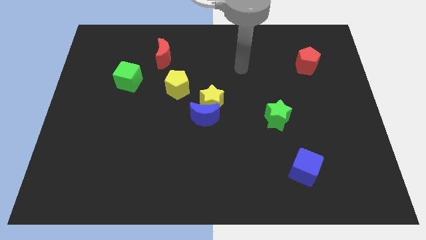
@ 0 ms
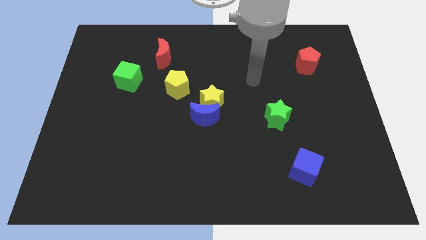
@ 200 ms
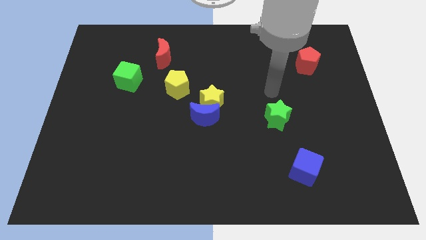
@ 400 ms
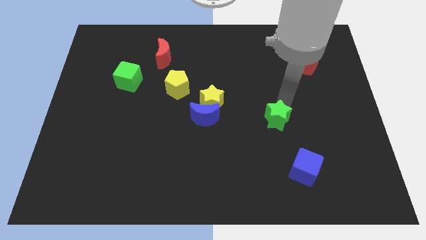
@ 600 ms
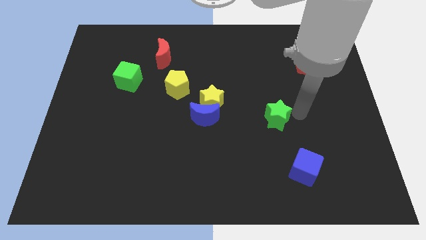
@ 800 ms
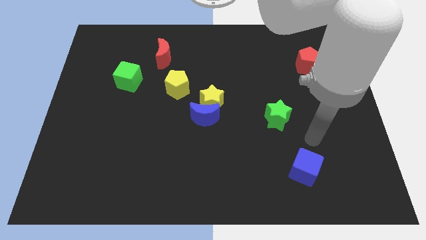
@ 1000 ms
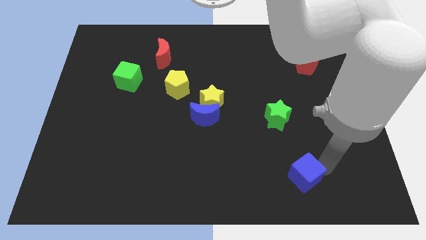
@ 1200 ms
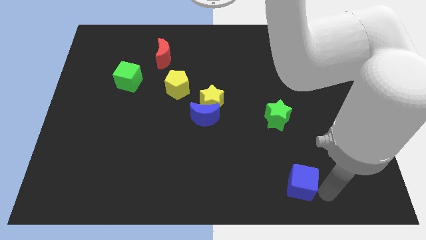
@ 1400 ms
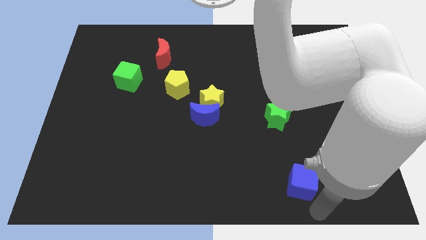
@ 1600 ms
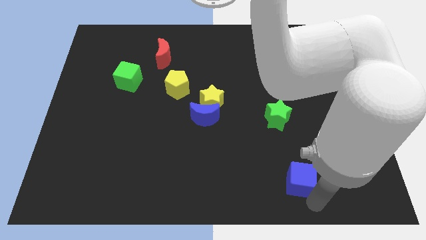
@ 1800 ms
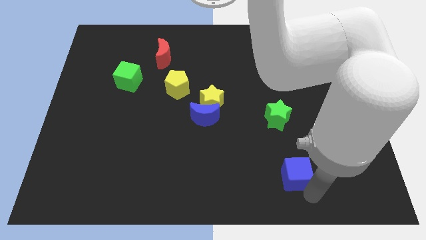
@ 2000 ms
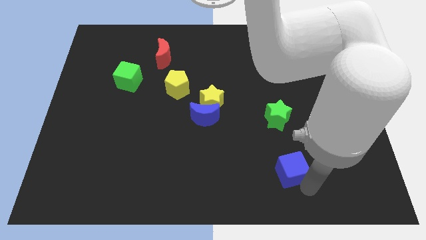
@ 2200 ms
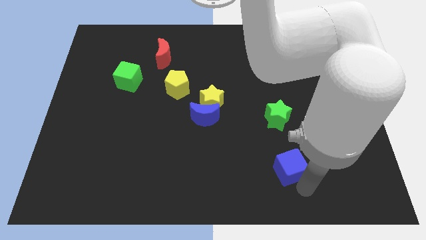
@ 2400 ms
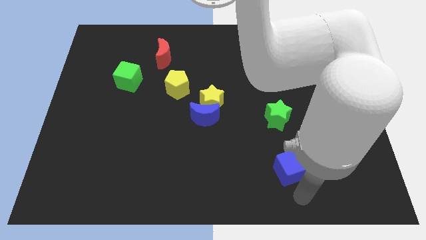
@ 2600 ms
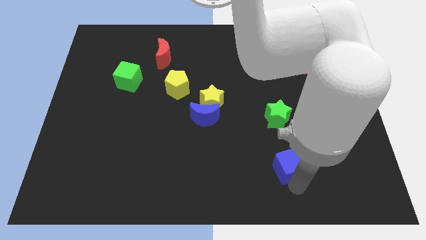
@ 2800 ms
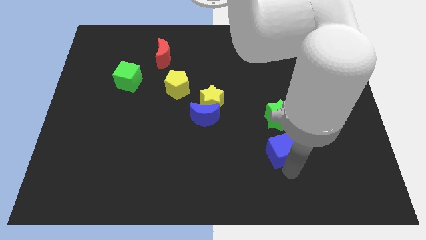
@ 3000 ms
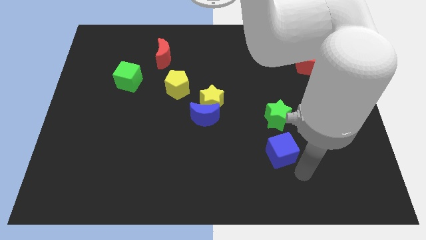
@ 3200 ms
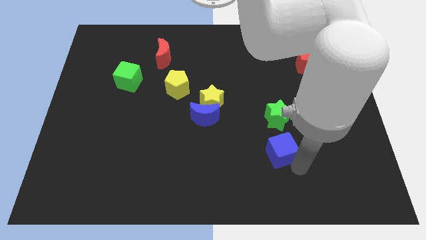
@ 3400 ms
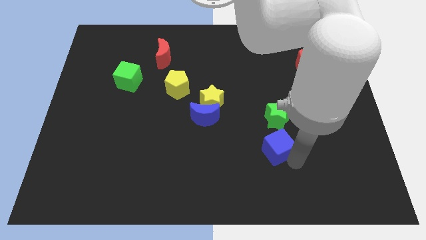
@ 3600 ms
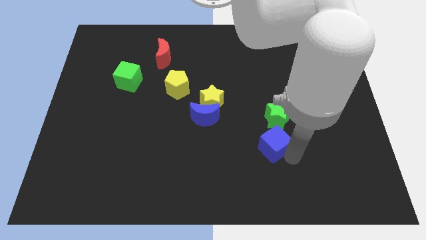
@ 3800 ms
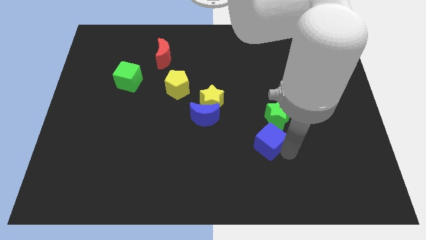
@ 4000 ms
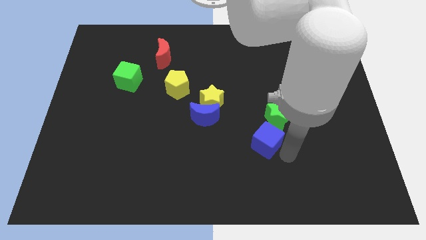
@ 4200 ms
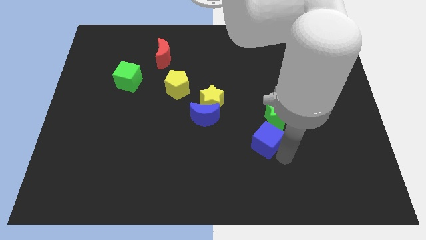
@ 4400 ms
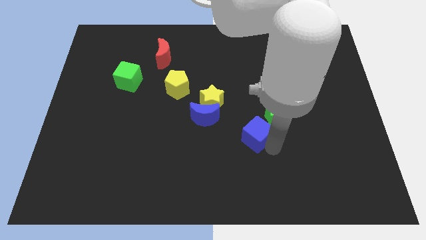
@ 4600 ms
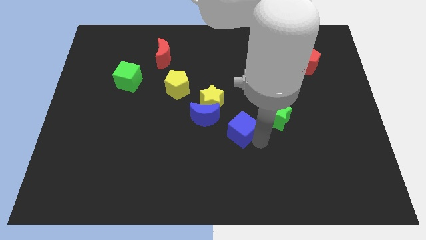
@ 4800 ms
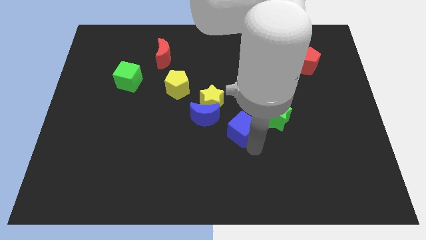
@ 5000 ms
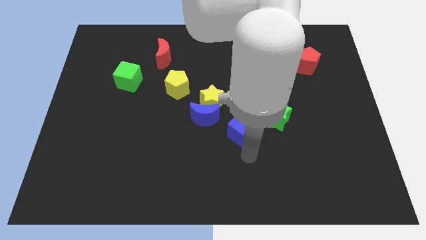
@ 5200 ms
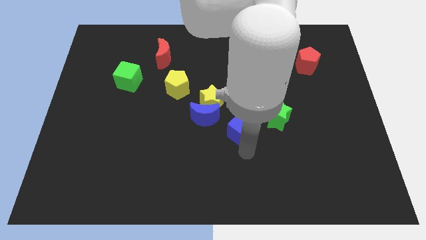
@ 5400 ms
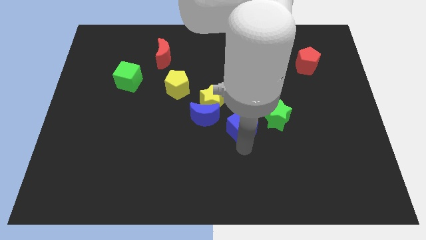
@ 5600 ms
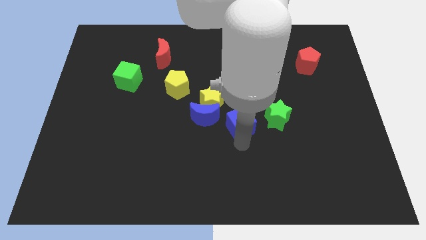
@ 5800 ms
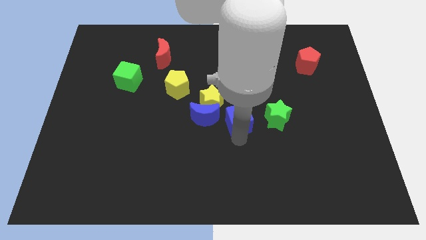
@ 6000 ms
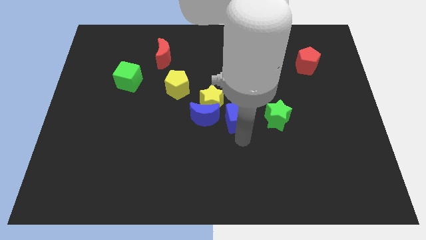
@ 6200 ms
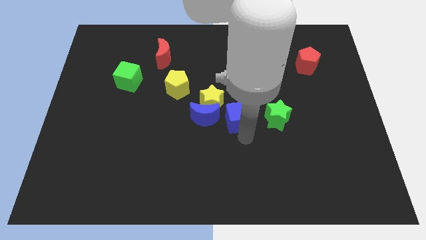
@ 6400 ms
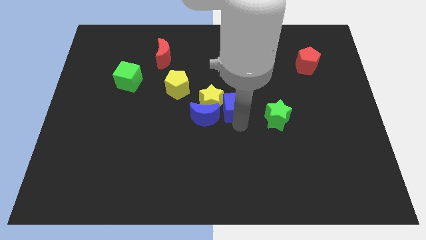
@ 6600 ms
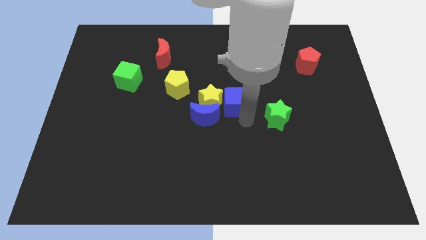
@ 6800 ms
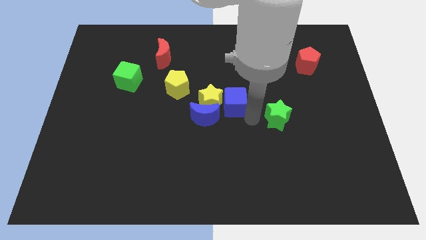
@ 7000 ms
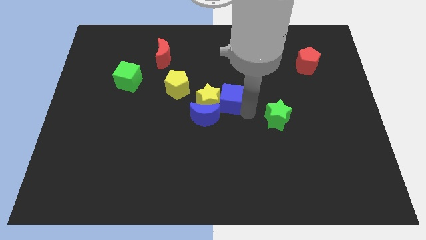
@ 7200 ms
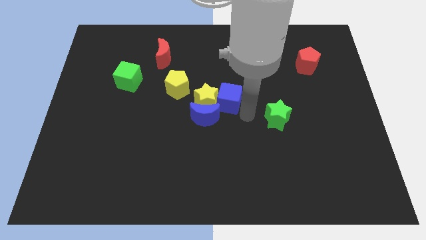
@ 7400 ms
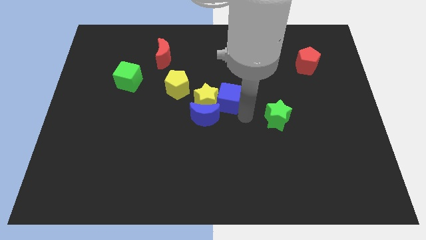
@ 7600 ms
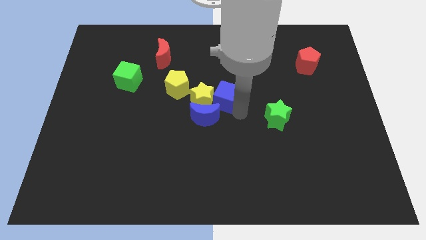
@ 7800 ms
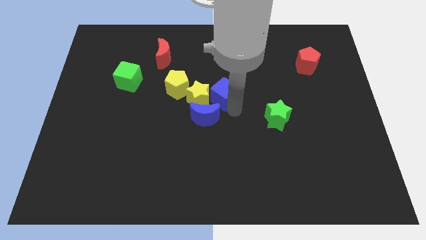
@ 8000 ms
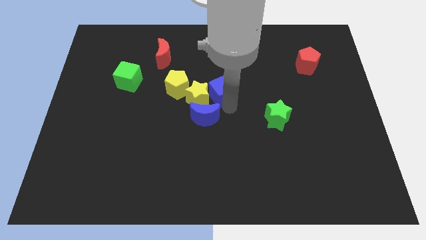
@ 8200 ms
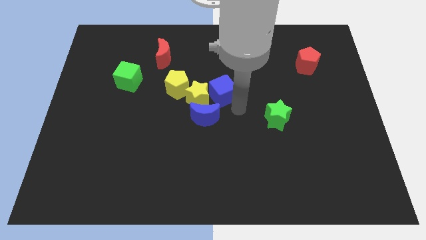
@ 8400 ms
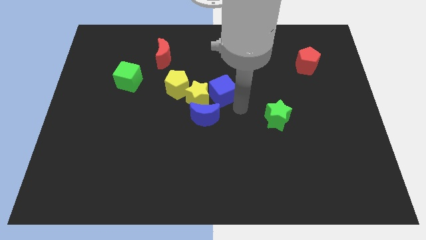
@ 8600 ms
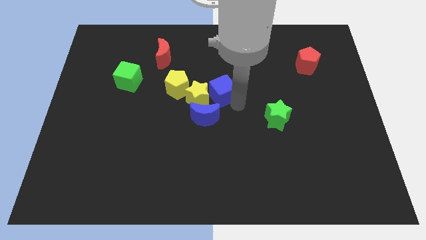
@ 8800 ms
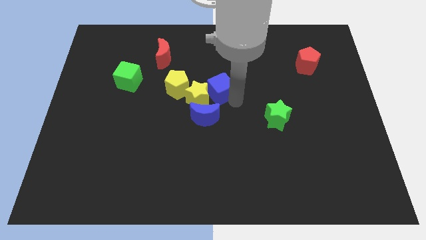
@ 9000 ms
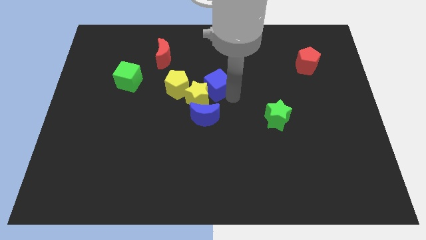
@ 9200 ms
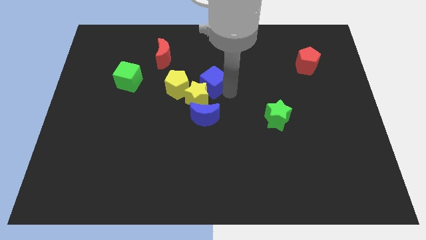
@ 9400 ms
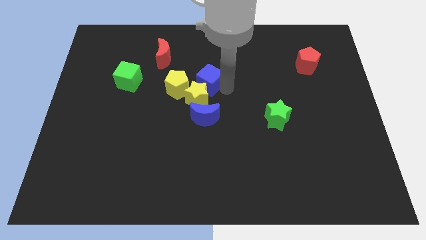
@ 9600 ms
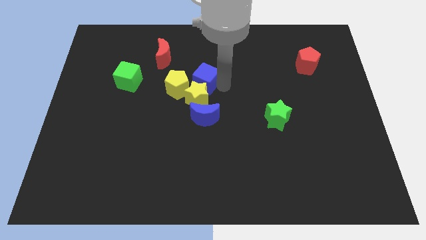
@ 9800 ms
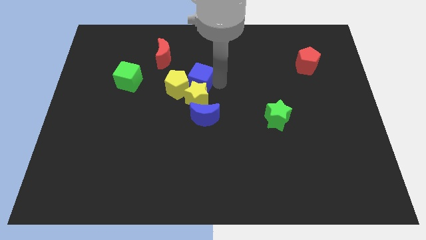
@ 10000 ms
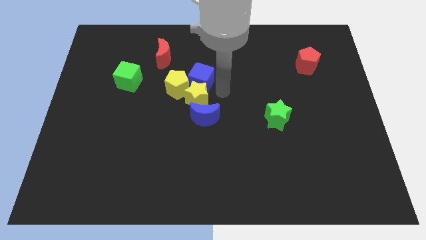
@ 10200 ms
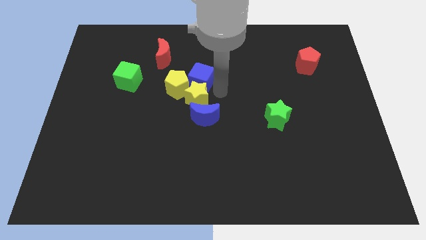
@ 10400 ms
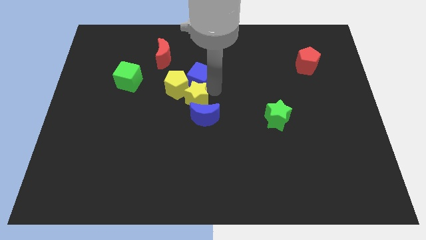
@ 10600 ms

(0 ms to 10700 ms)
slide the blue cube to the bottom right of the red moon

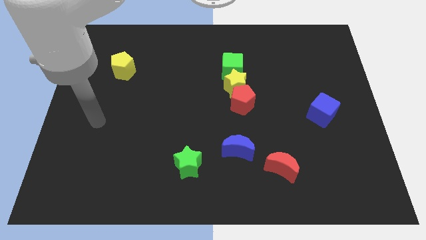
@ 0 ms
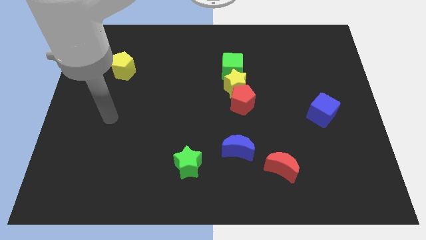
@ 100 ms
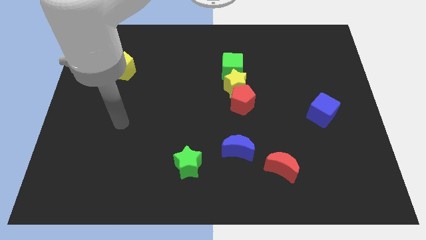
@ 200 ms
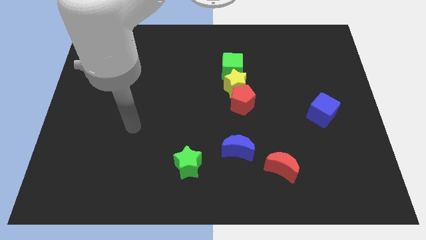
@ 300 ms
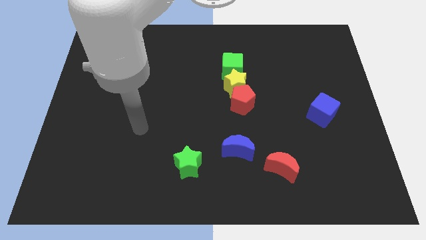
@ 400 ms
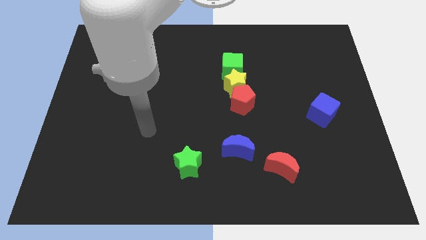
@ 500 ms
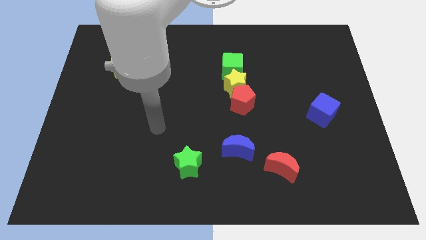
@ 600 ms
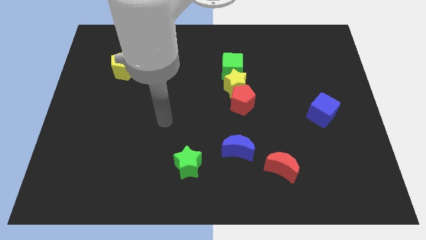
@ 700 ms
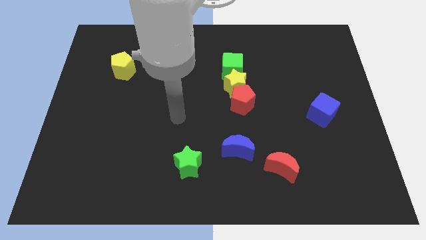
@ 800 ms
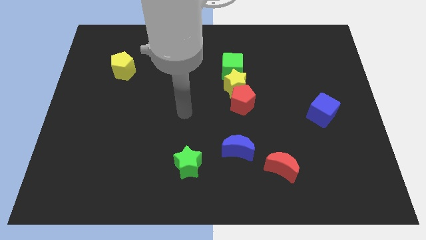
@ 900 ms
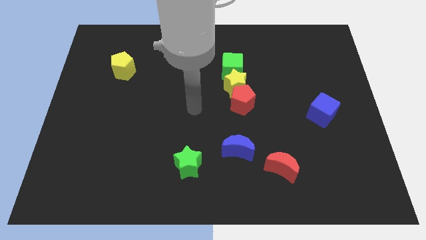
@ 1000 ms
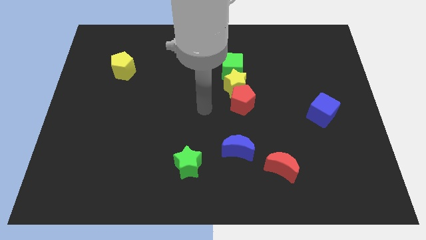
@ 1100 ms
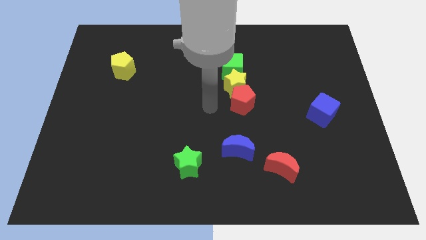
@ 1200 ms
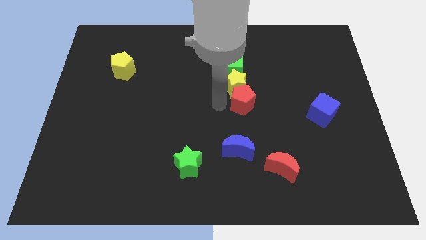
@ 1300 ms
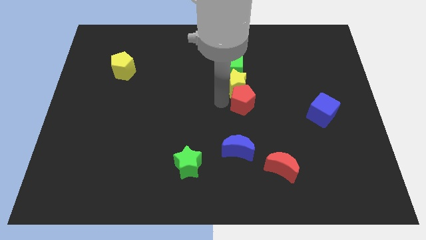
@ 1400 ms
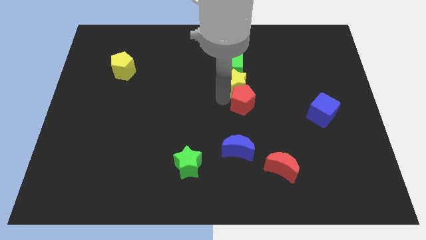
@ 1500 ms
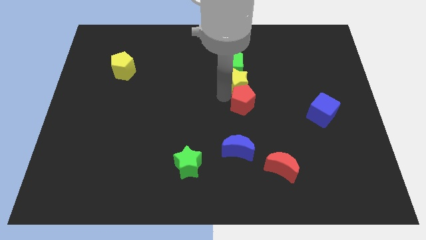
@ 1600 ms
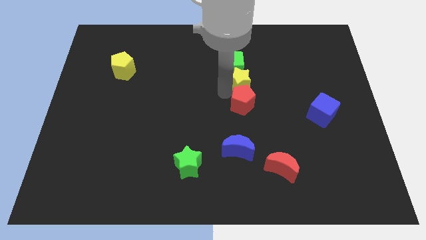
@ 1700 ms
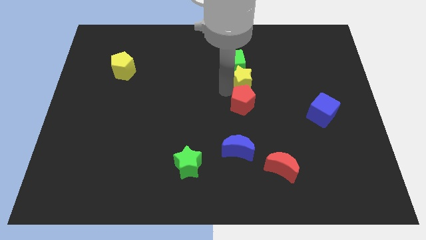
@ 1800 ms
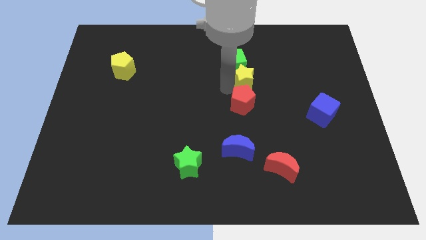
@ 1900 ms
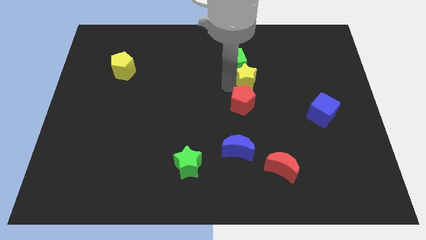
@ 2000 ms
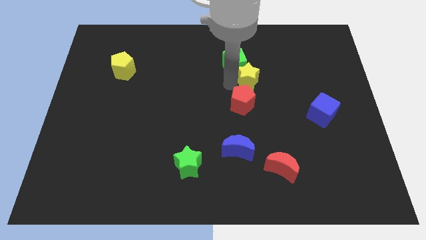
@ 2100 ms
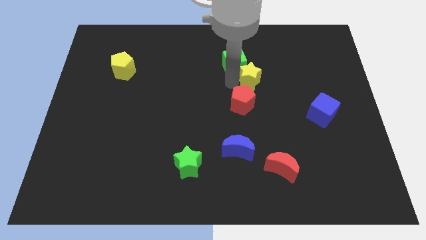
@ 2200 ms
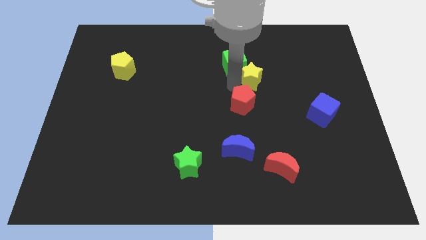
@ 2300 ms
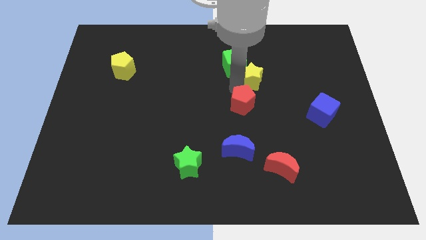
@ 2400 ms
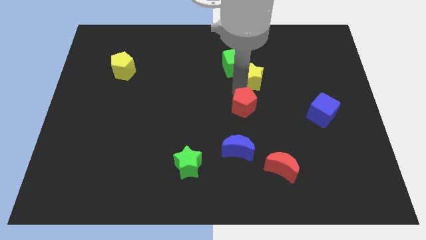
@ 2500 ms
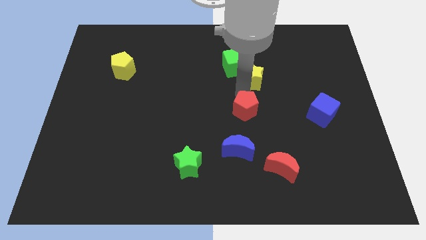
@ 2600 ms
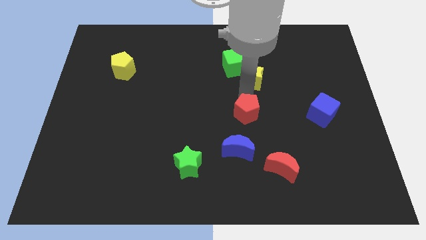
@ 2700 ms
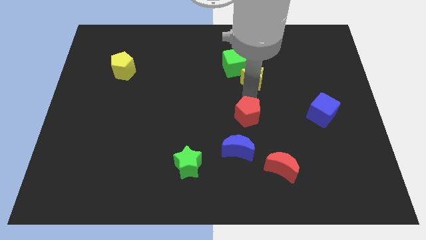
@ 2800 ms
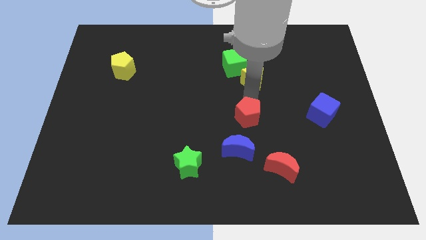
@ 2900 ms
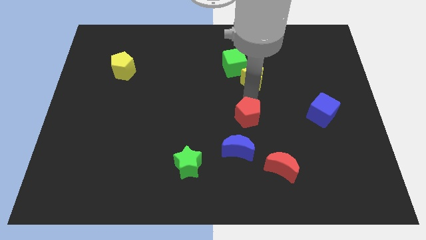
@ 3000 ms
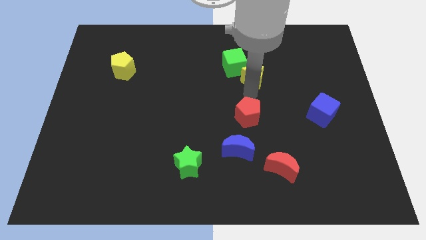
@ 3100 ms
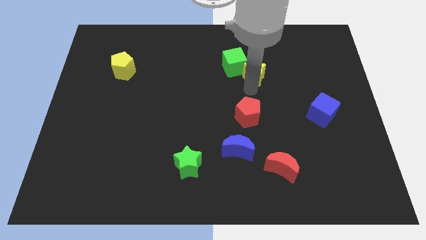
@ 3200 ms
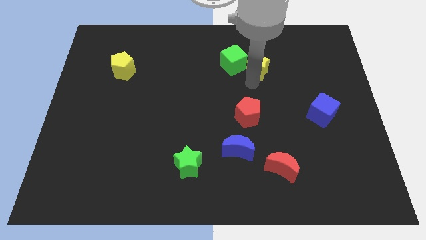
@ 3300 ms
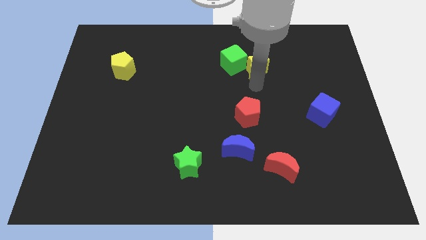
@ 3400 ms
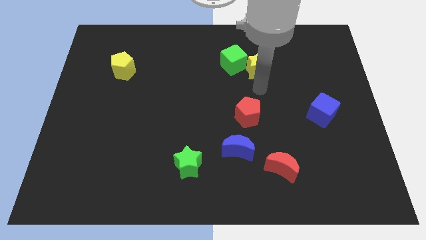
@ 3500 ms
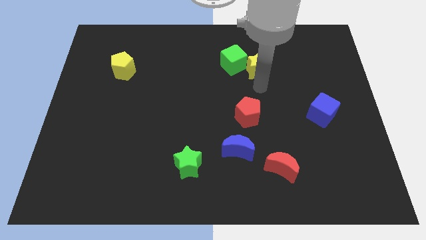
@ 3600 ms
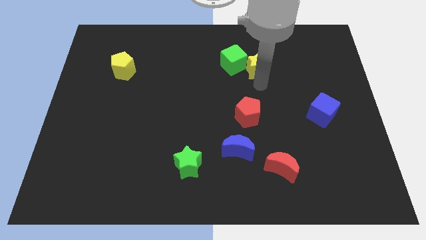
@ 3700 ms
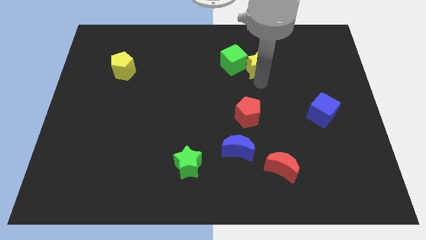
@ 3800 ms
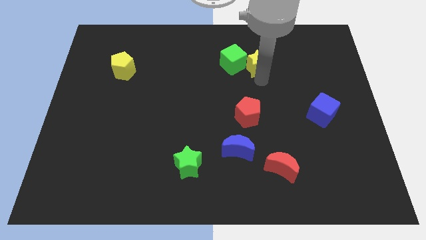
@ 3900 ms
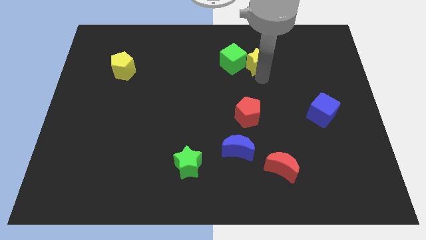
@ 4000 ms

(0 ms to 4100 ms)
put the yellow star diagonally up and to the right of the green cube
